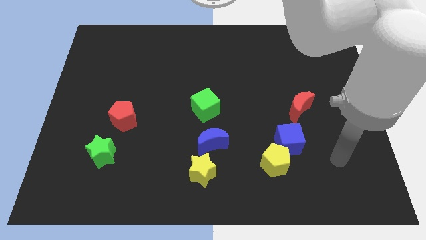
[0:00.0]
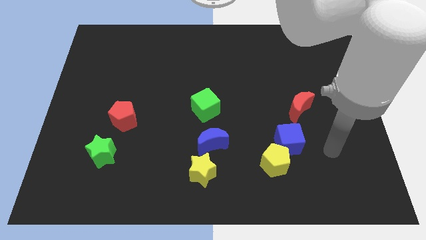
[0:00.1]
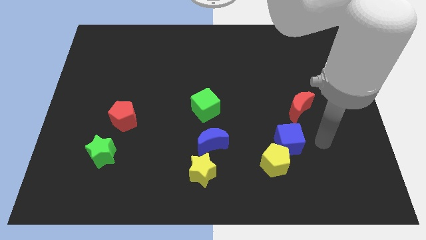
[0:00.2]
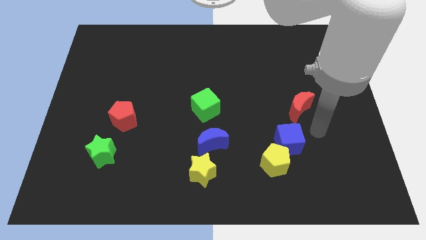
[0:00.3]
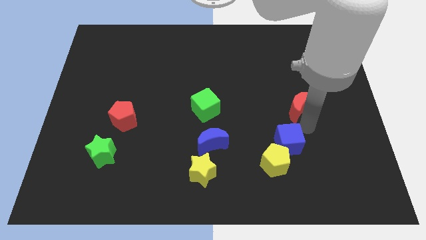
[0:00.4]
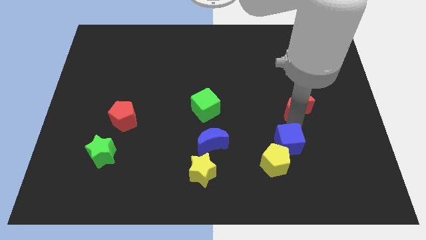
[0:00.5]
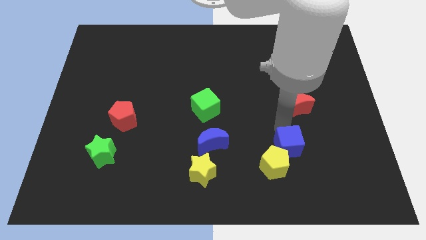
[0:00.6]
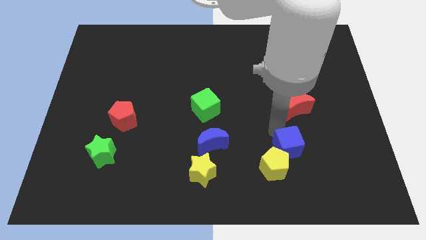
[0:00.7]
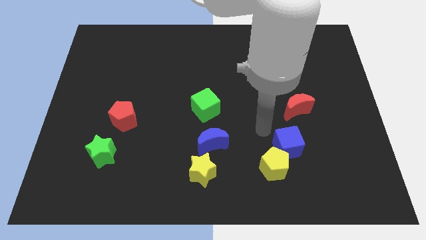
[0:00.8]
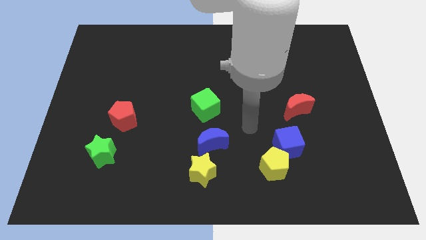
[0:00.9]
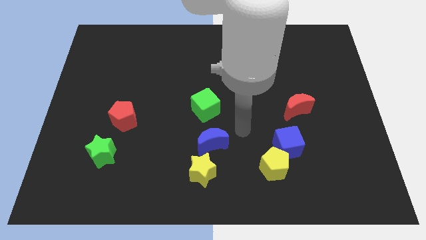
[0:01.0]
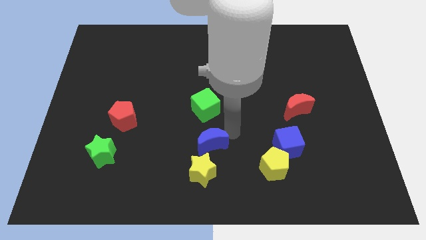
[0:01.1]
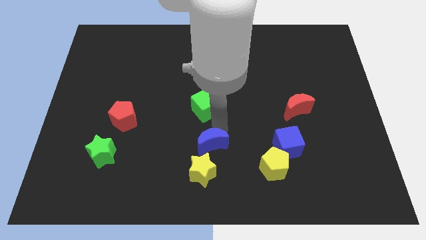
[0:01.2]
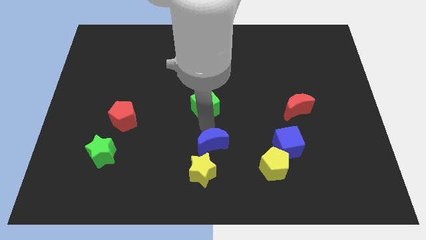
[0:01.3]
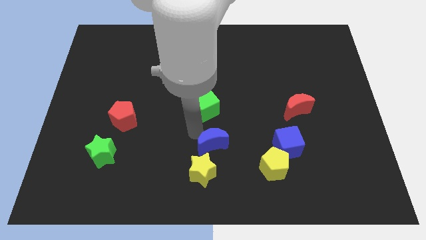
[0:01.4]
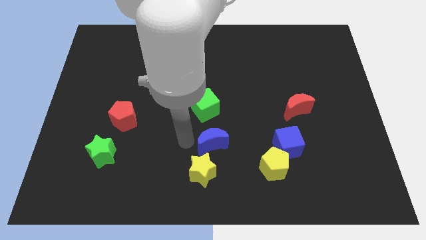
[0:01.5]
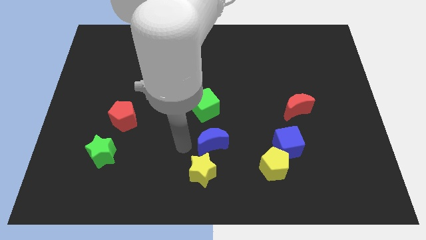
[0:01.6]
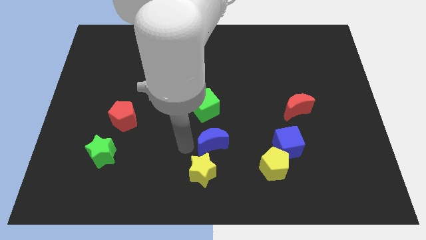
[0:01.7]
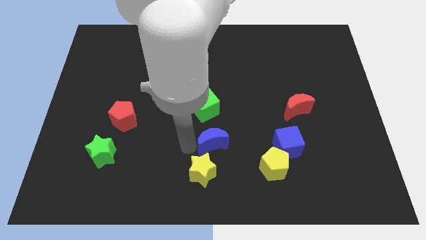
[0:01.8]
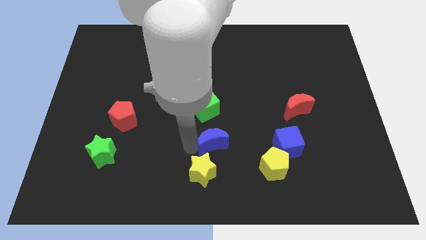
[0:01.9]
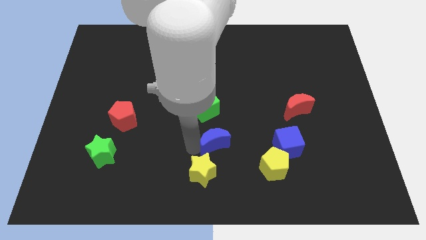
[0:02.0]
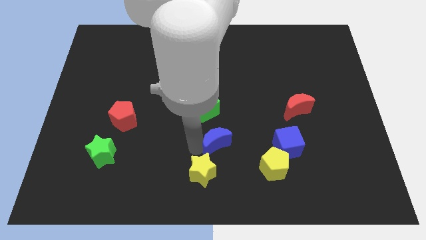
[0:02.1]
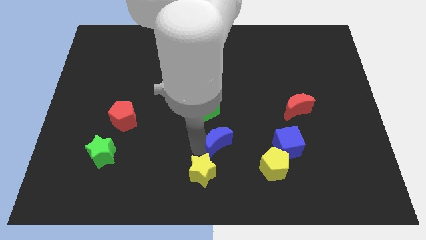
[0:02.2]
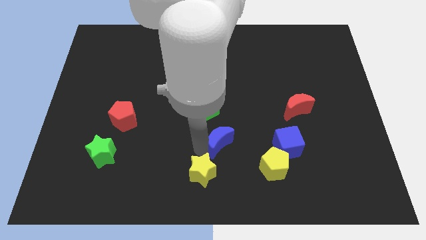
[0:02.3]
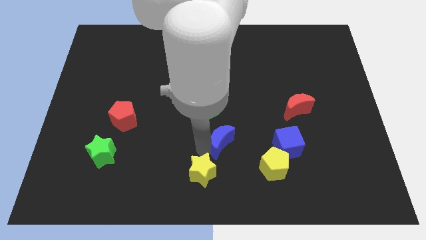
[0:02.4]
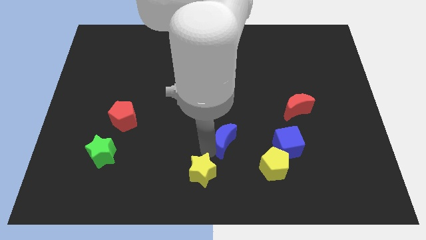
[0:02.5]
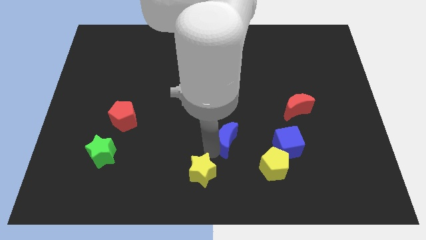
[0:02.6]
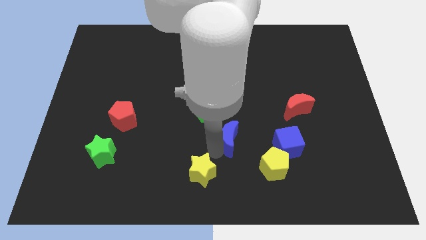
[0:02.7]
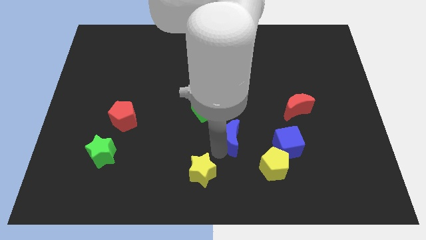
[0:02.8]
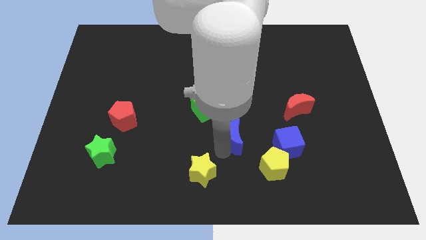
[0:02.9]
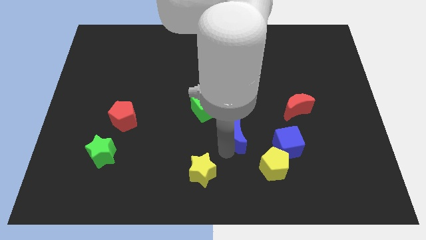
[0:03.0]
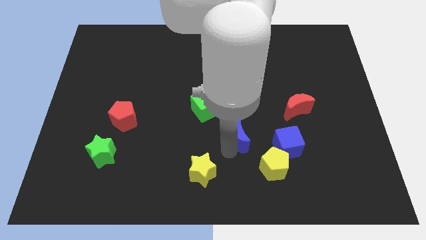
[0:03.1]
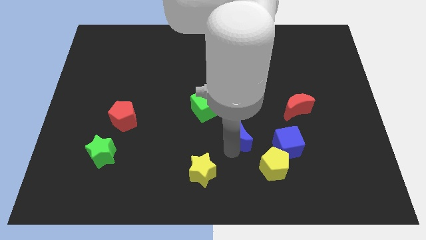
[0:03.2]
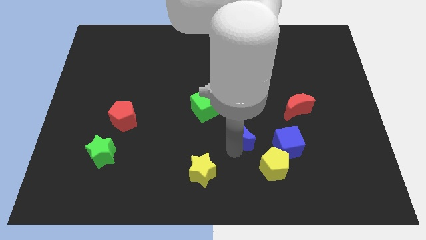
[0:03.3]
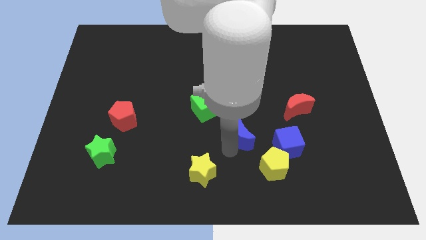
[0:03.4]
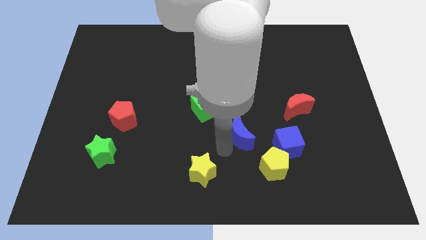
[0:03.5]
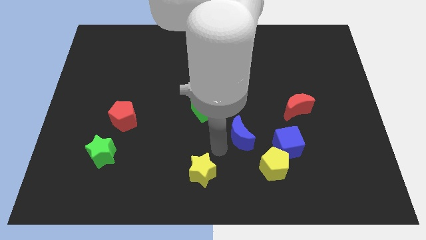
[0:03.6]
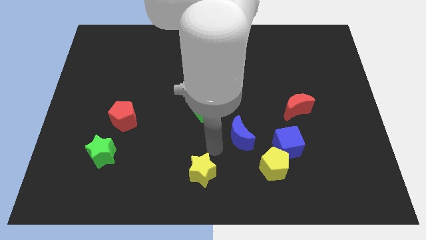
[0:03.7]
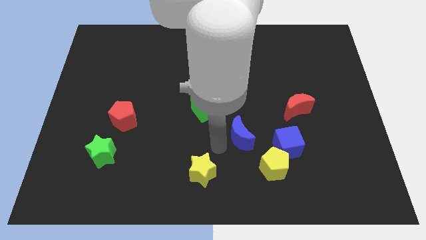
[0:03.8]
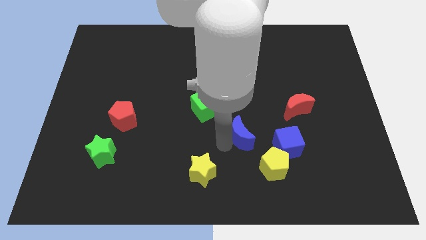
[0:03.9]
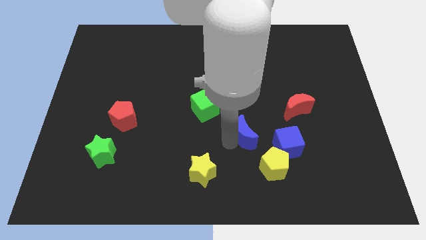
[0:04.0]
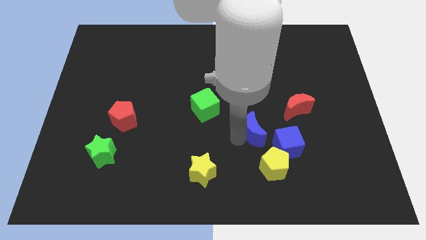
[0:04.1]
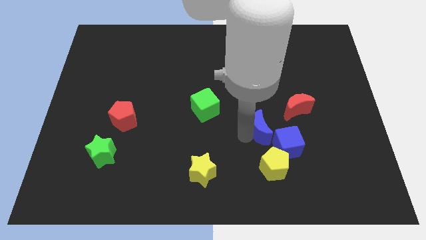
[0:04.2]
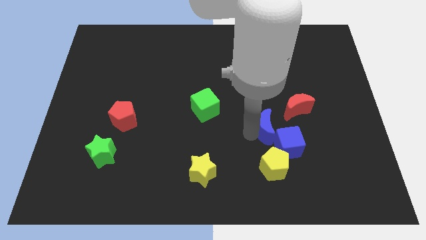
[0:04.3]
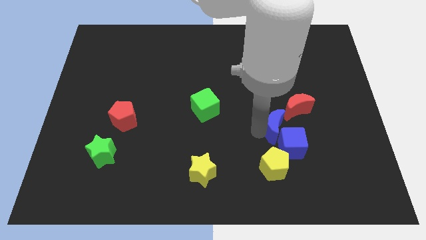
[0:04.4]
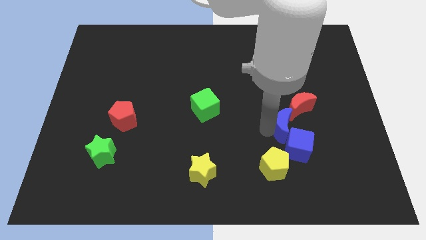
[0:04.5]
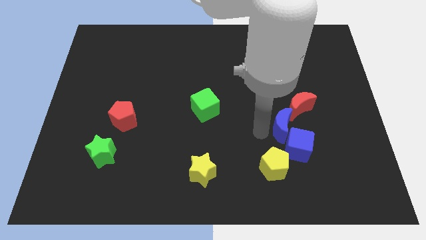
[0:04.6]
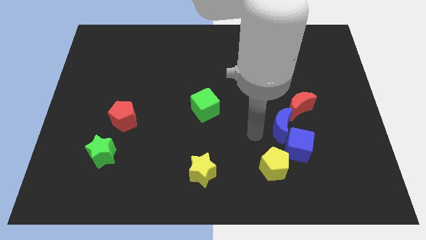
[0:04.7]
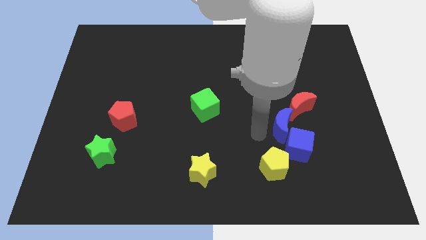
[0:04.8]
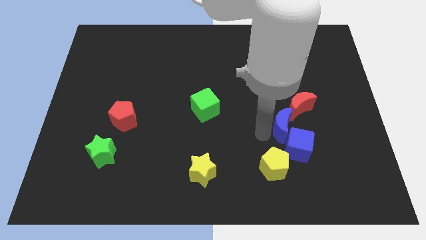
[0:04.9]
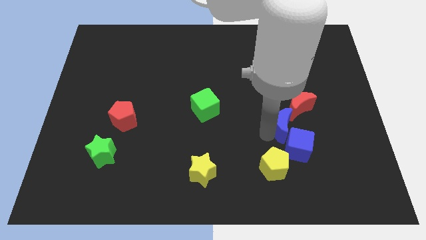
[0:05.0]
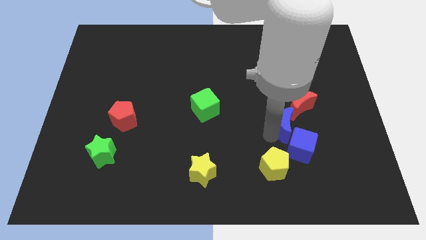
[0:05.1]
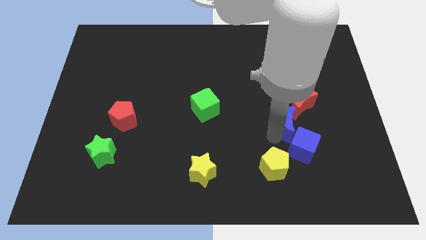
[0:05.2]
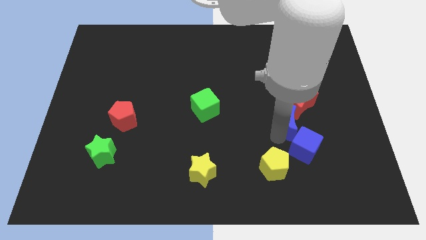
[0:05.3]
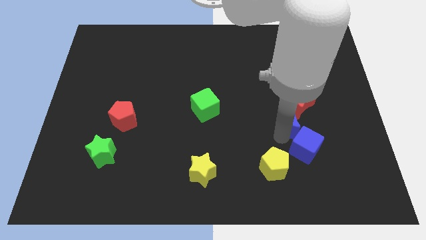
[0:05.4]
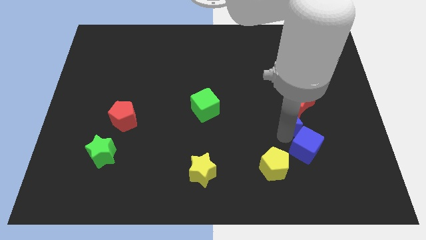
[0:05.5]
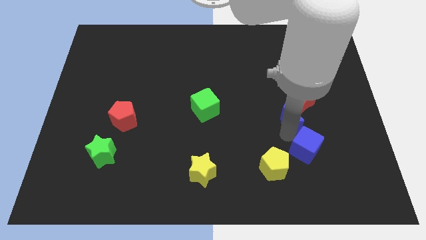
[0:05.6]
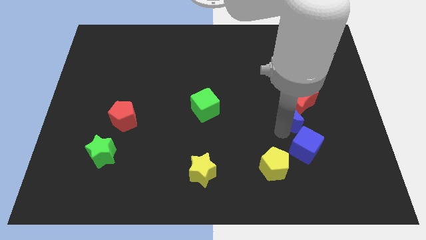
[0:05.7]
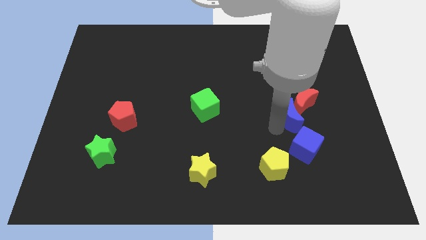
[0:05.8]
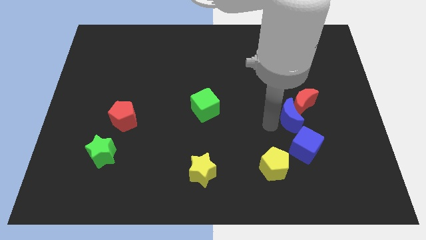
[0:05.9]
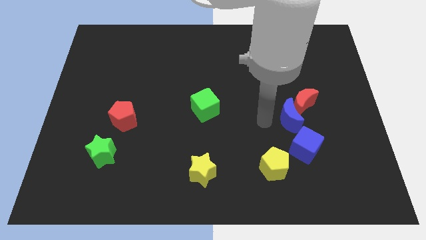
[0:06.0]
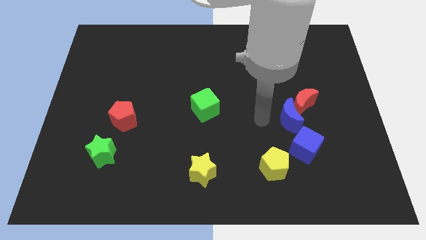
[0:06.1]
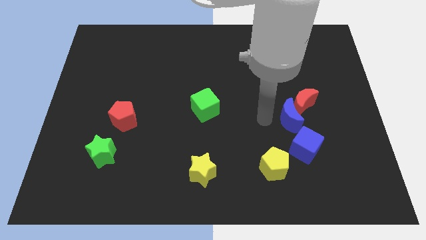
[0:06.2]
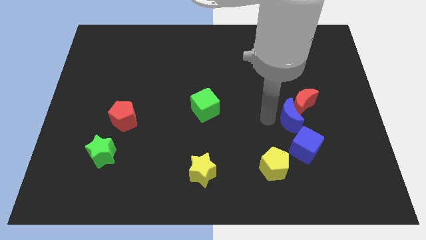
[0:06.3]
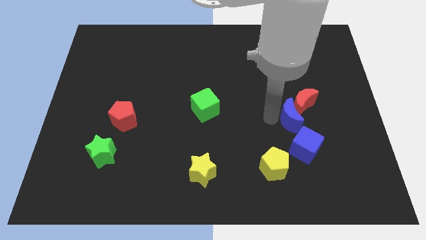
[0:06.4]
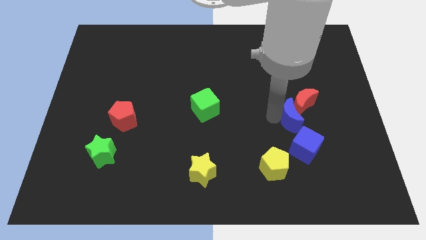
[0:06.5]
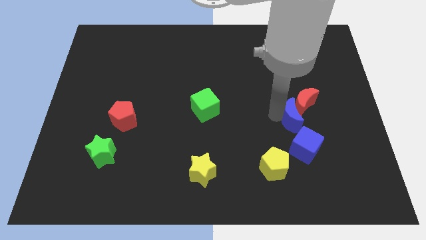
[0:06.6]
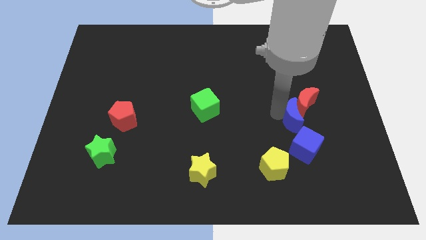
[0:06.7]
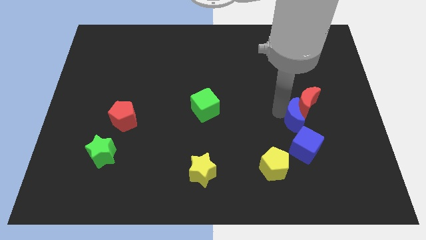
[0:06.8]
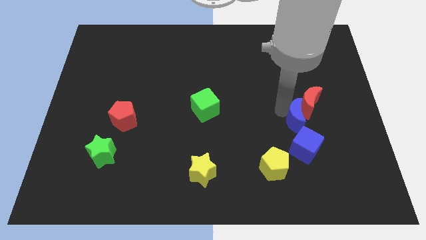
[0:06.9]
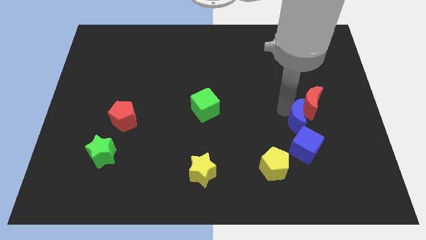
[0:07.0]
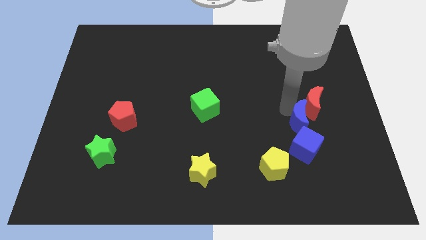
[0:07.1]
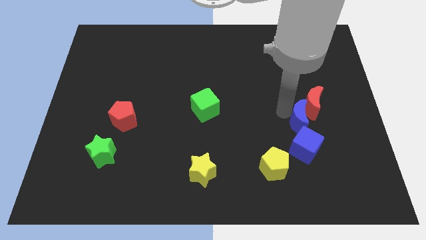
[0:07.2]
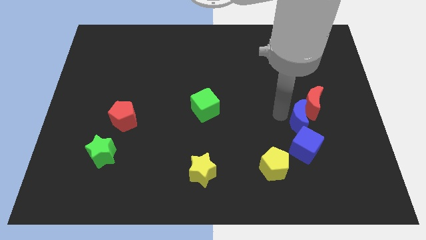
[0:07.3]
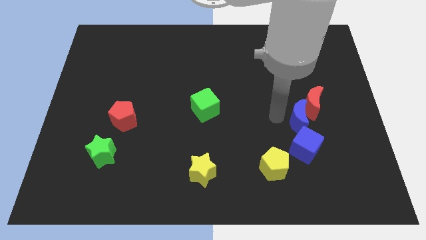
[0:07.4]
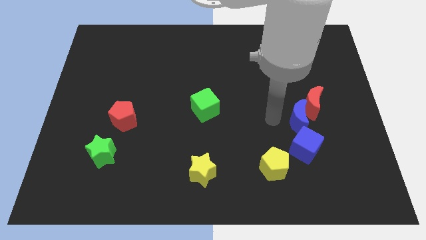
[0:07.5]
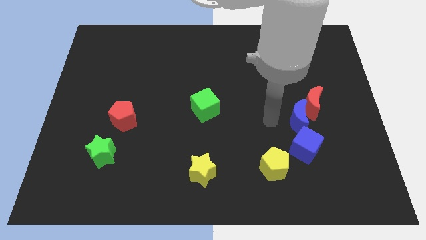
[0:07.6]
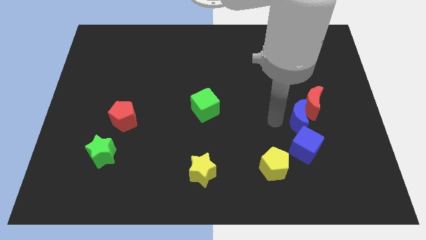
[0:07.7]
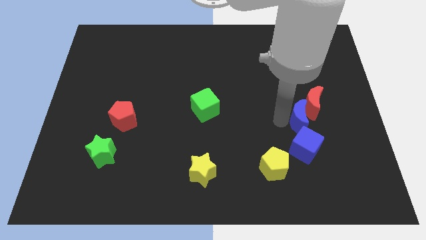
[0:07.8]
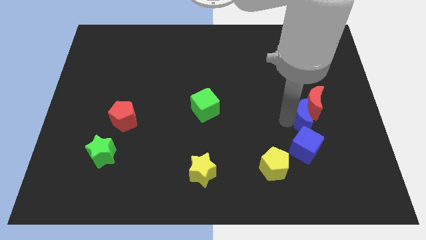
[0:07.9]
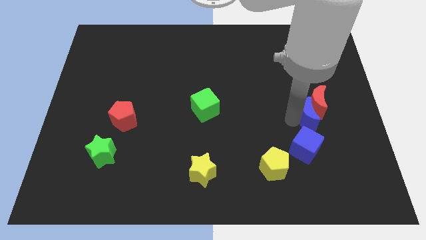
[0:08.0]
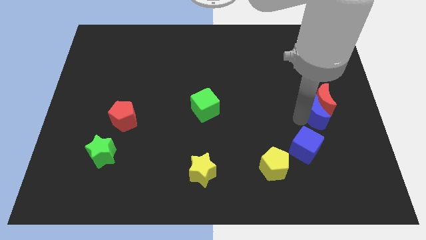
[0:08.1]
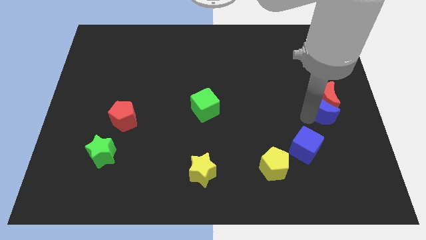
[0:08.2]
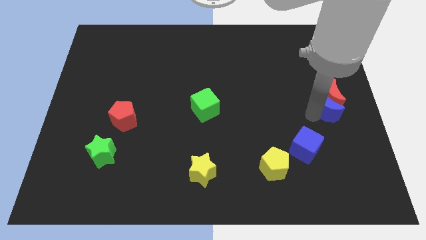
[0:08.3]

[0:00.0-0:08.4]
slide the blue moon to the right side
